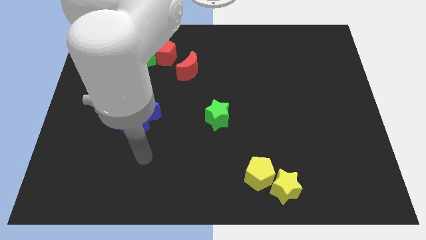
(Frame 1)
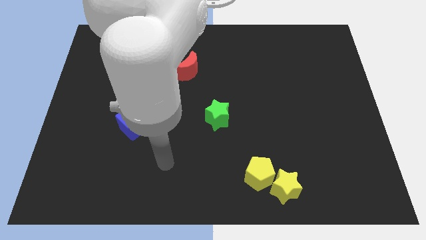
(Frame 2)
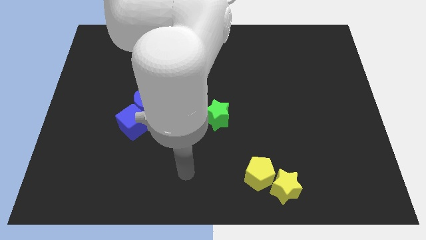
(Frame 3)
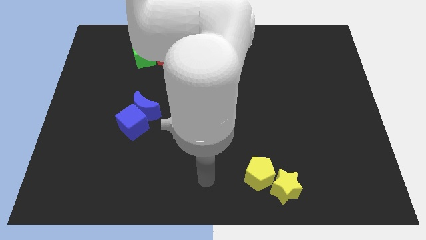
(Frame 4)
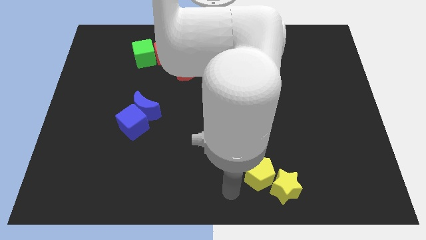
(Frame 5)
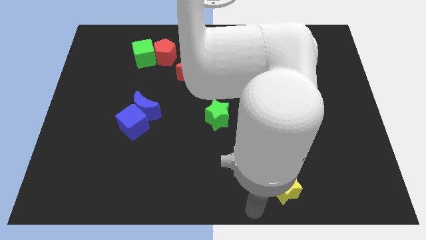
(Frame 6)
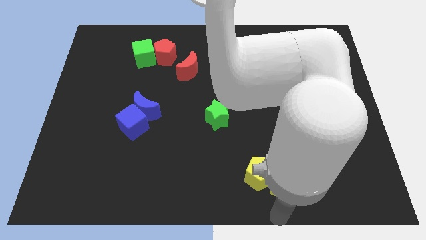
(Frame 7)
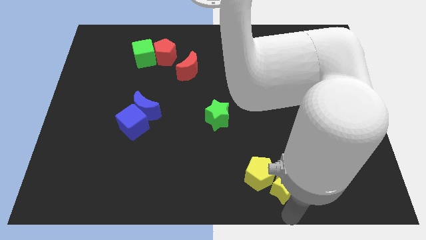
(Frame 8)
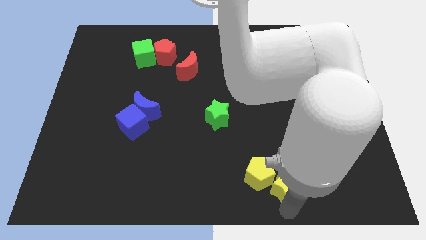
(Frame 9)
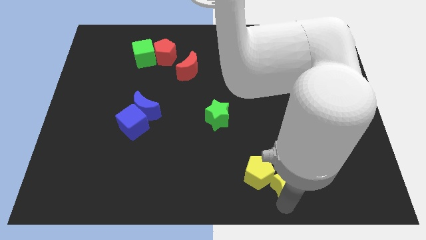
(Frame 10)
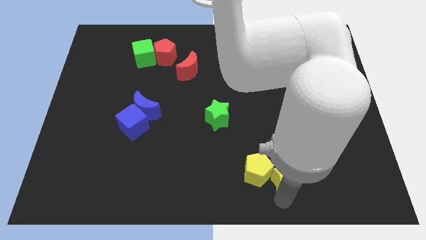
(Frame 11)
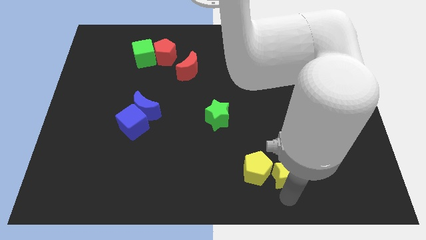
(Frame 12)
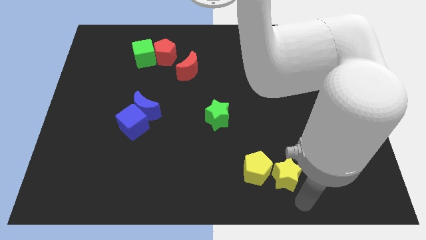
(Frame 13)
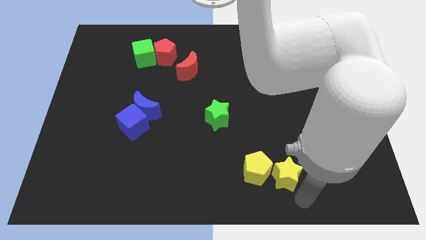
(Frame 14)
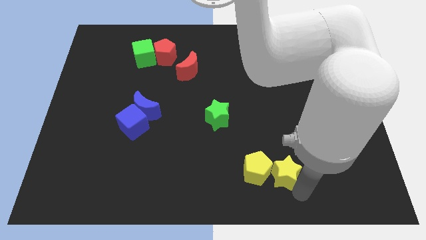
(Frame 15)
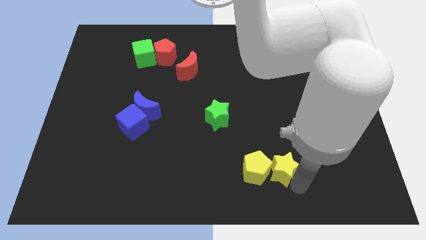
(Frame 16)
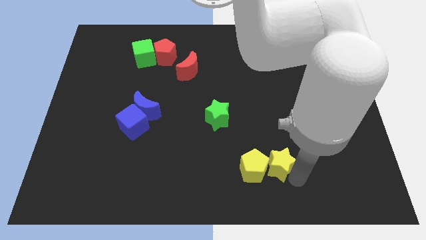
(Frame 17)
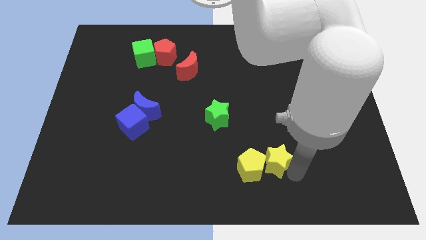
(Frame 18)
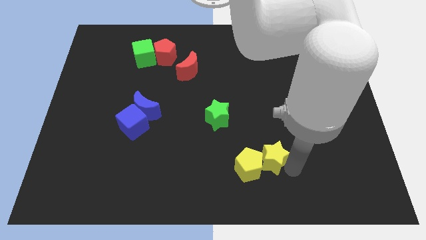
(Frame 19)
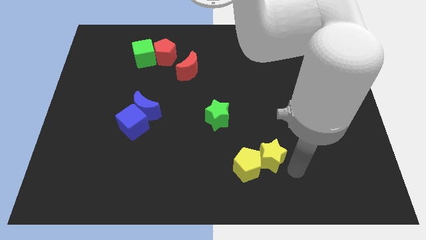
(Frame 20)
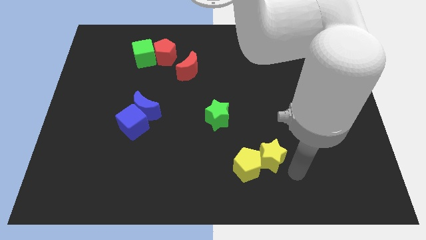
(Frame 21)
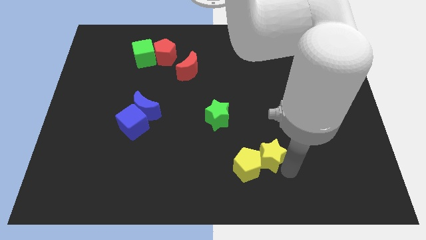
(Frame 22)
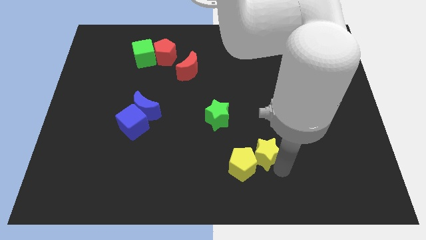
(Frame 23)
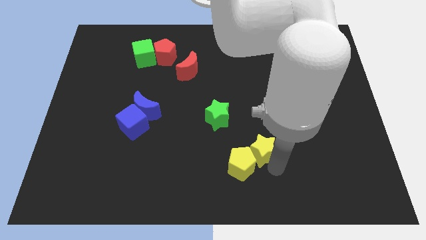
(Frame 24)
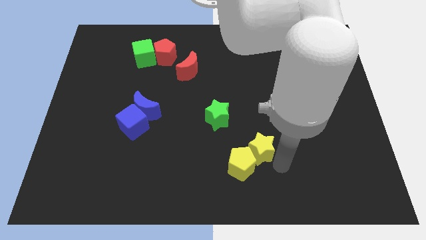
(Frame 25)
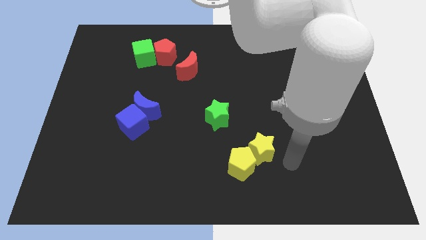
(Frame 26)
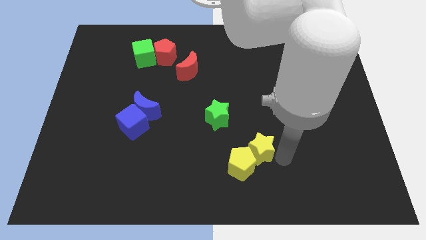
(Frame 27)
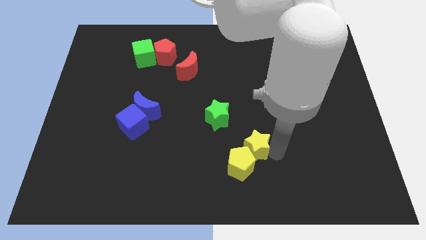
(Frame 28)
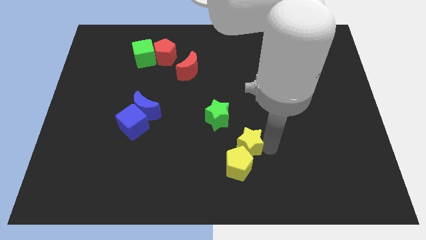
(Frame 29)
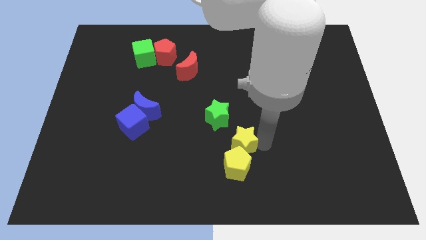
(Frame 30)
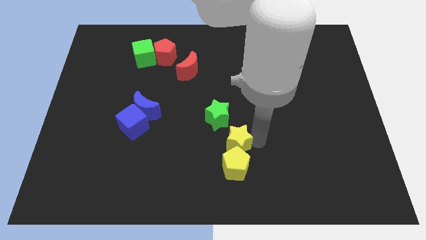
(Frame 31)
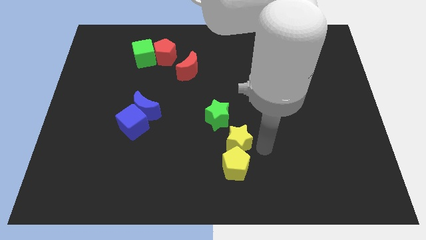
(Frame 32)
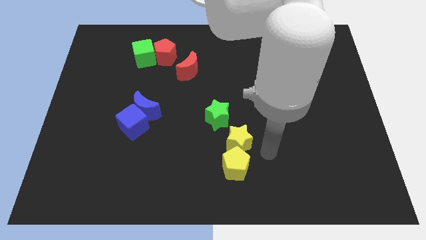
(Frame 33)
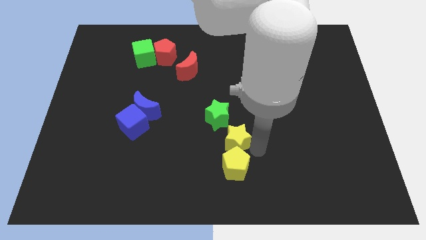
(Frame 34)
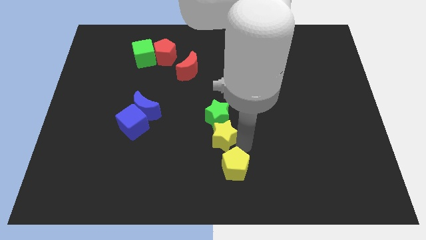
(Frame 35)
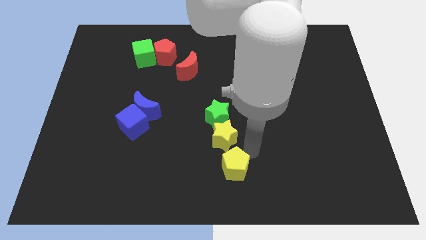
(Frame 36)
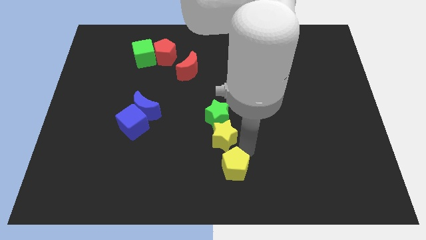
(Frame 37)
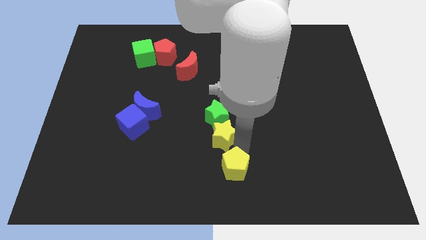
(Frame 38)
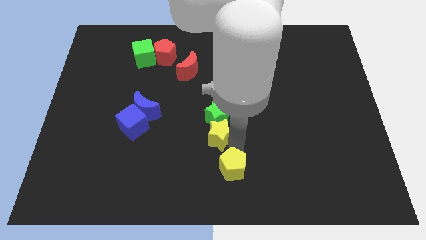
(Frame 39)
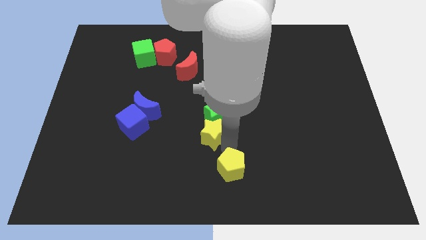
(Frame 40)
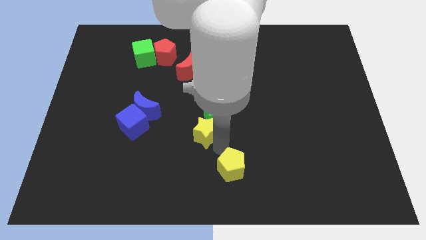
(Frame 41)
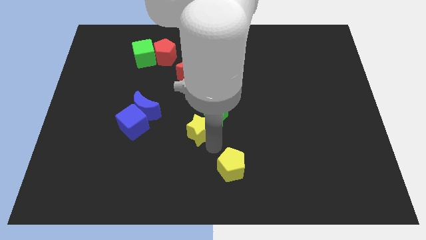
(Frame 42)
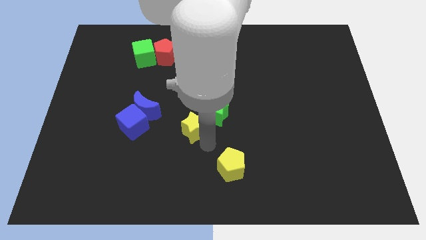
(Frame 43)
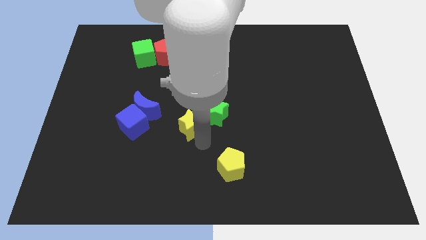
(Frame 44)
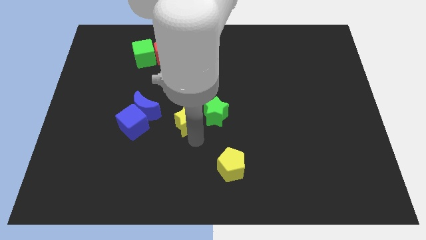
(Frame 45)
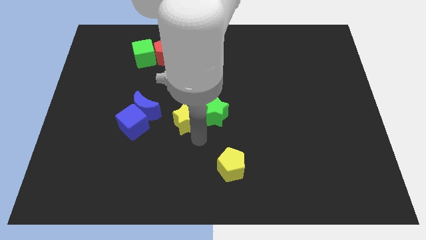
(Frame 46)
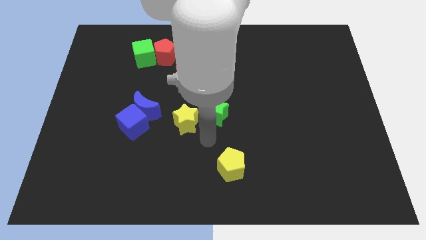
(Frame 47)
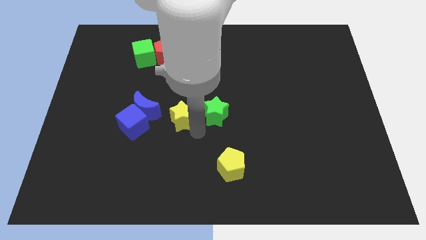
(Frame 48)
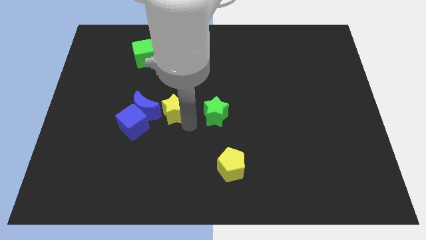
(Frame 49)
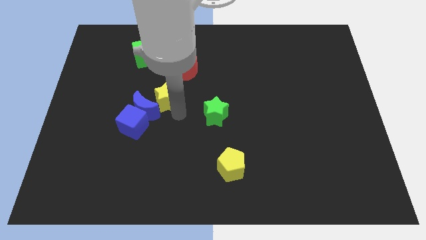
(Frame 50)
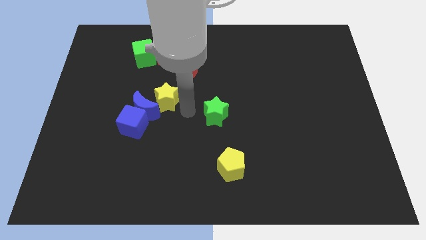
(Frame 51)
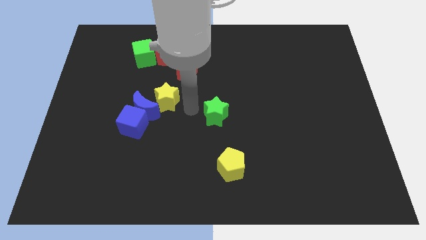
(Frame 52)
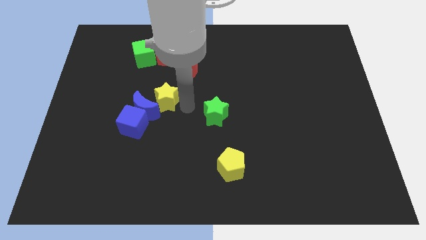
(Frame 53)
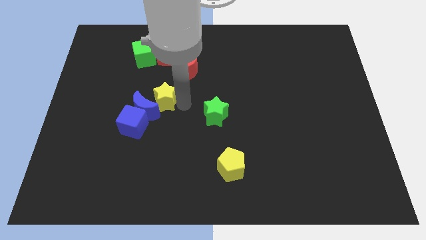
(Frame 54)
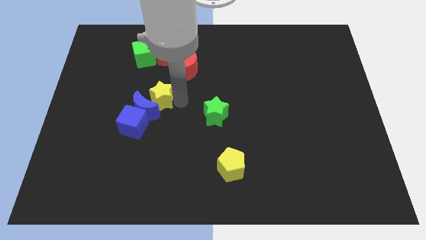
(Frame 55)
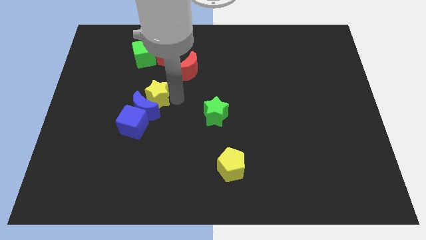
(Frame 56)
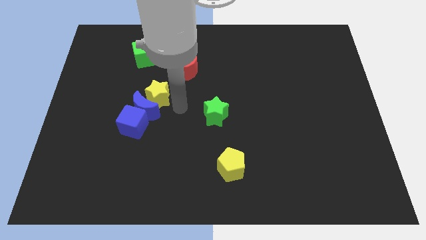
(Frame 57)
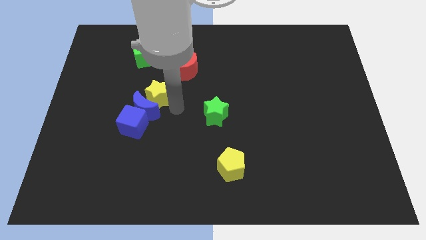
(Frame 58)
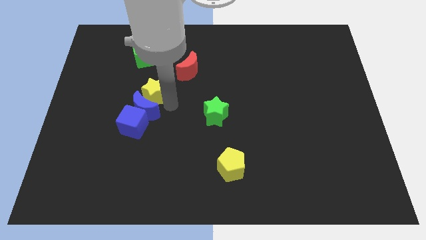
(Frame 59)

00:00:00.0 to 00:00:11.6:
slide the yellow star to the bottom of the green cube

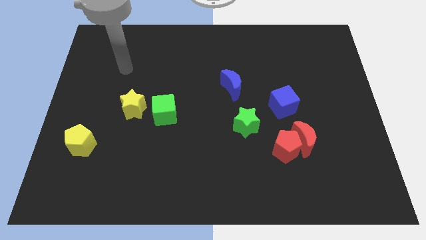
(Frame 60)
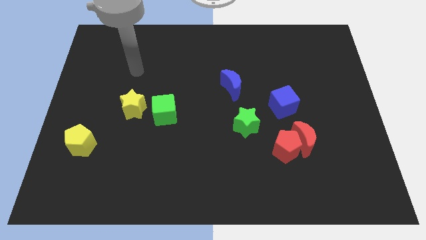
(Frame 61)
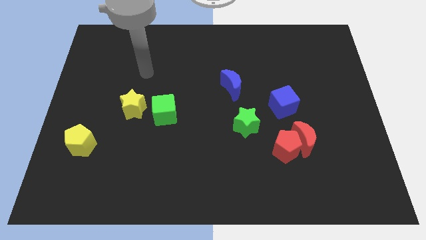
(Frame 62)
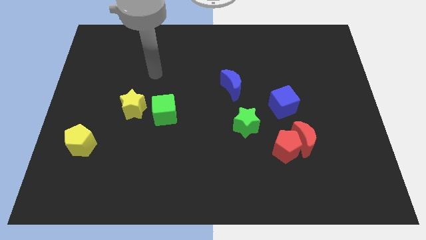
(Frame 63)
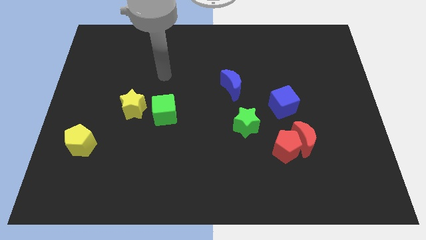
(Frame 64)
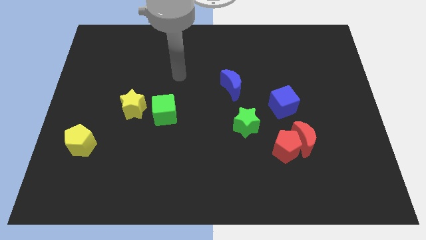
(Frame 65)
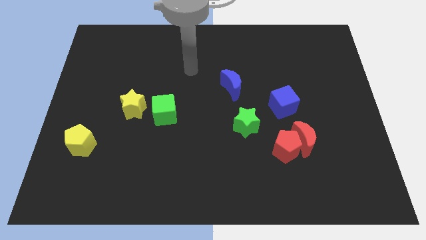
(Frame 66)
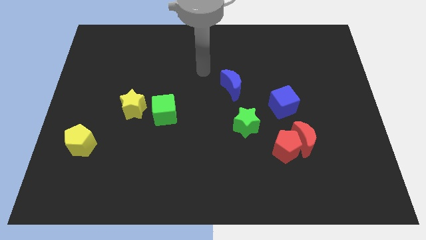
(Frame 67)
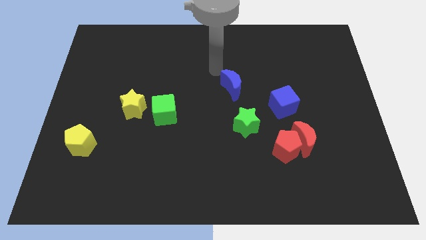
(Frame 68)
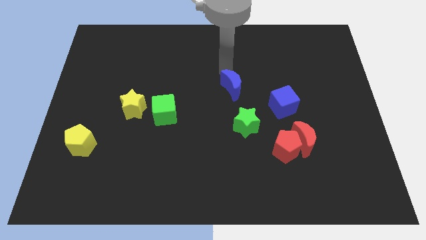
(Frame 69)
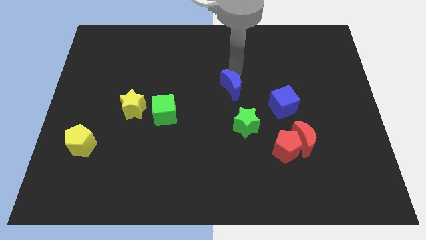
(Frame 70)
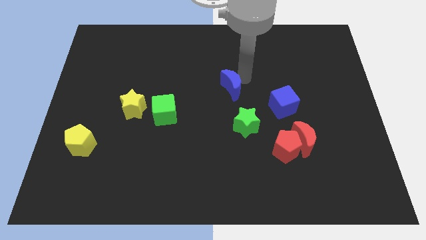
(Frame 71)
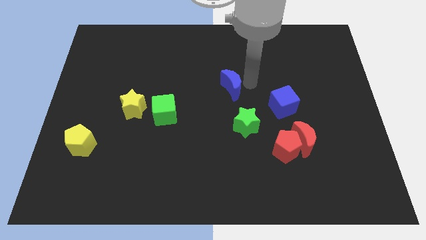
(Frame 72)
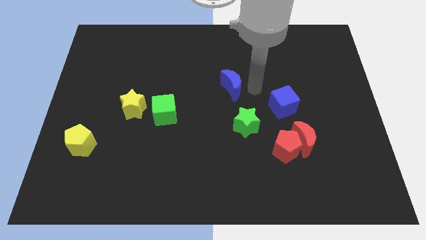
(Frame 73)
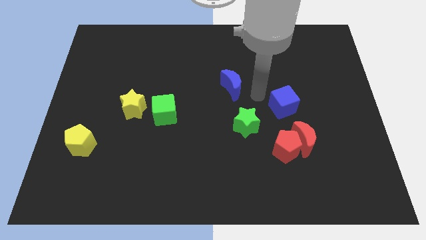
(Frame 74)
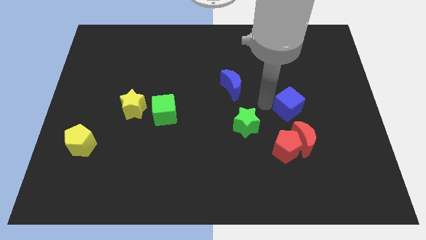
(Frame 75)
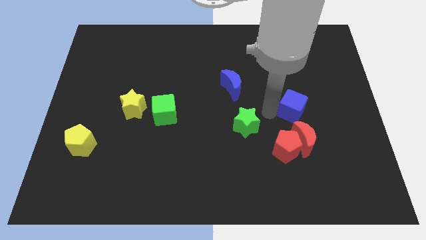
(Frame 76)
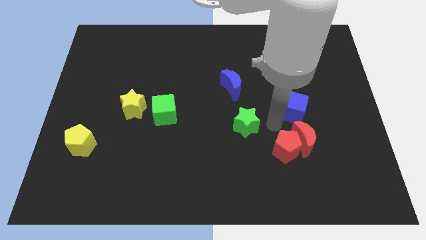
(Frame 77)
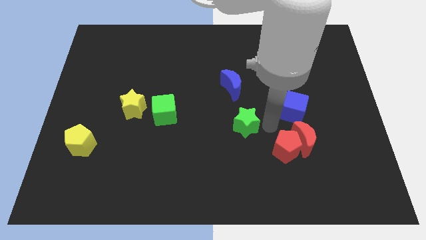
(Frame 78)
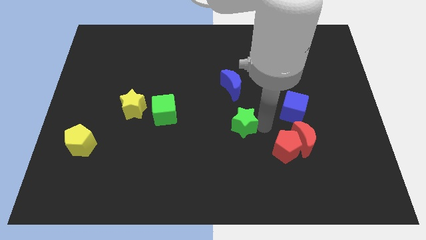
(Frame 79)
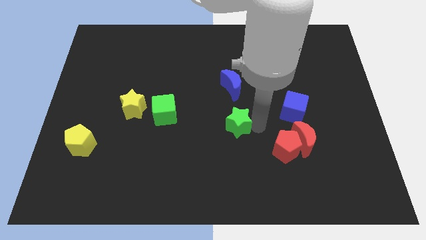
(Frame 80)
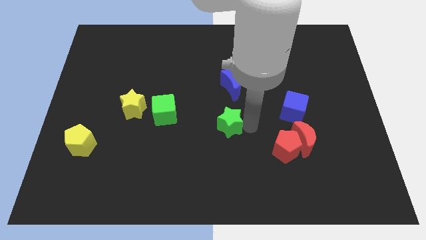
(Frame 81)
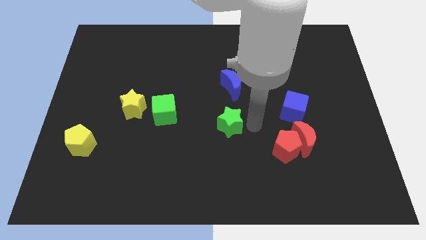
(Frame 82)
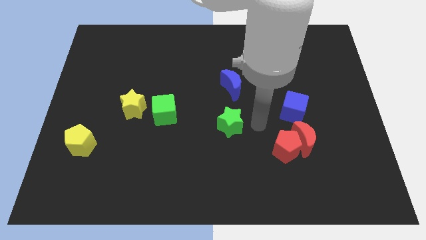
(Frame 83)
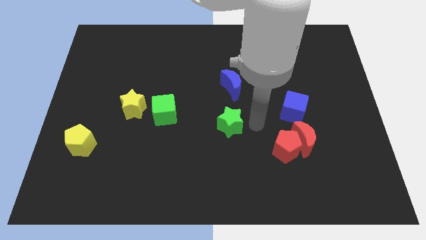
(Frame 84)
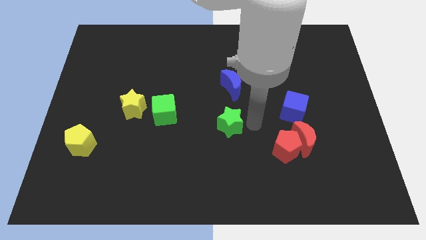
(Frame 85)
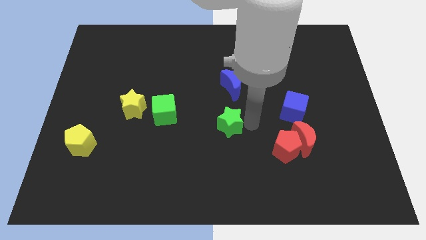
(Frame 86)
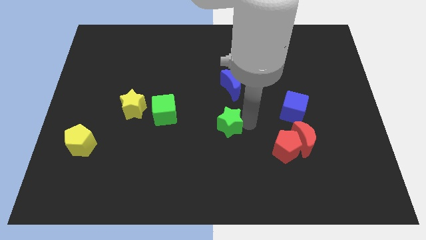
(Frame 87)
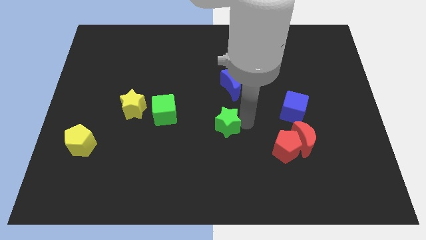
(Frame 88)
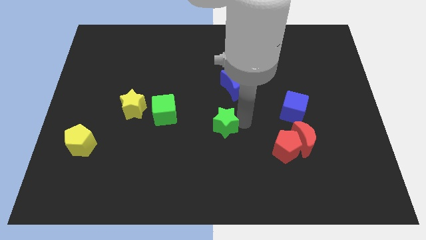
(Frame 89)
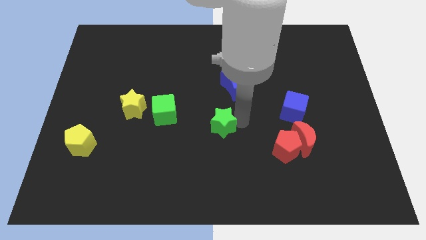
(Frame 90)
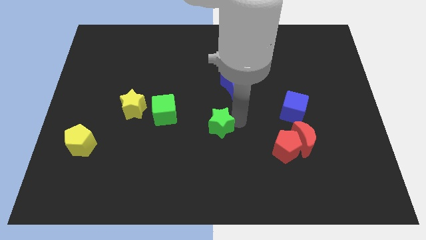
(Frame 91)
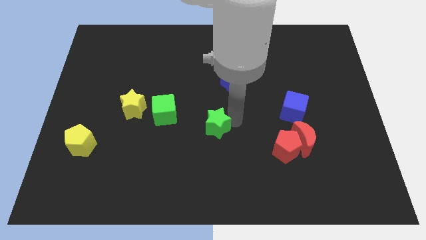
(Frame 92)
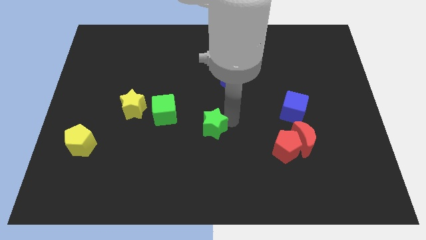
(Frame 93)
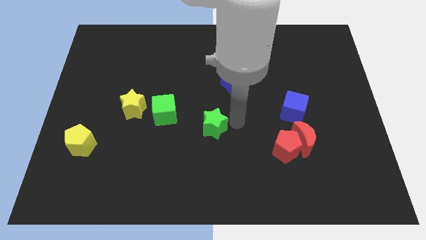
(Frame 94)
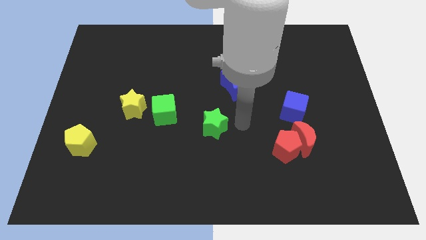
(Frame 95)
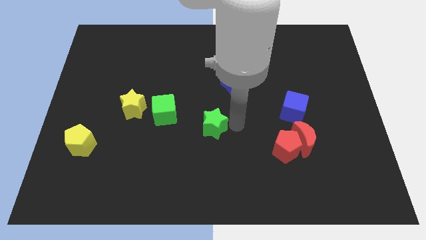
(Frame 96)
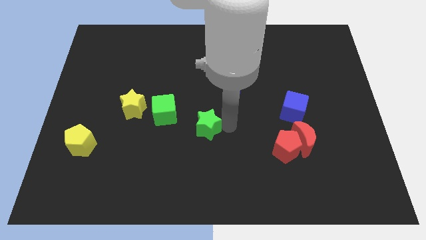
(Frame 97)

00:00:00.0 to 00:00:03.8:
slide the green star to the bottom right of the green cube
